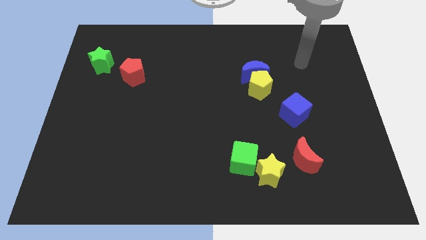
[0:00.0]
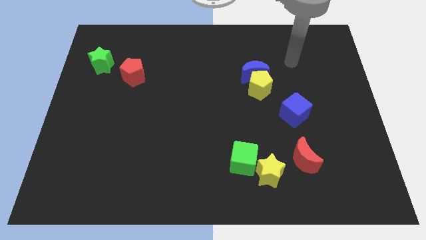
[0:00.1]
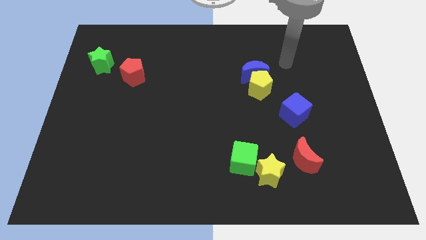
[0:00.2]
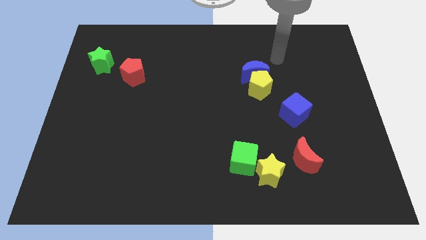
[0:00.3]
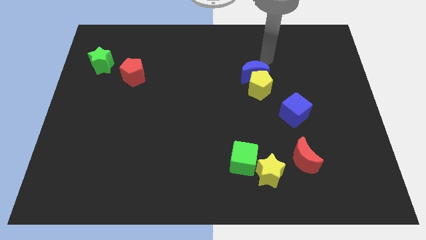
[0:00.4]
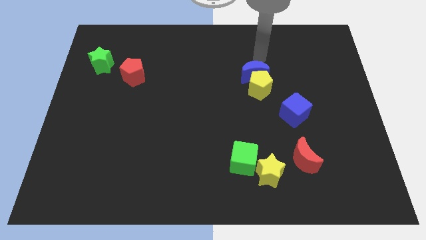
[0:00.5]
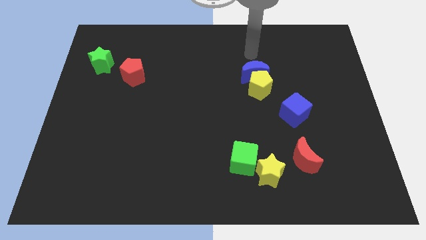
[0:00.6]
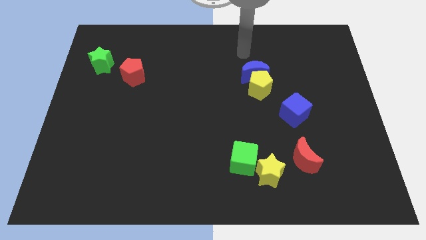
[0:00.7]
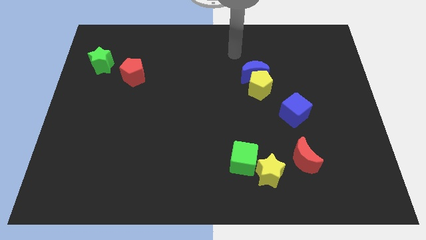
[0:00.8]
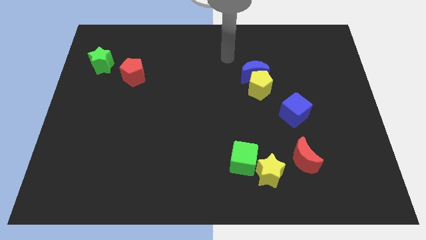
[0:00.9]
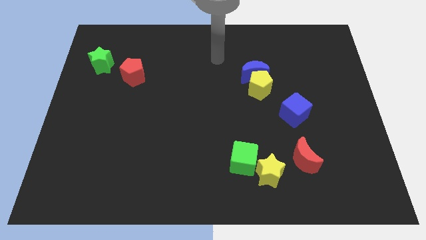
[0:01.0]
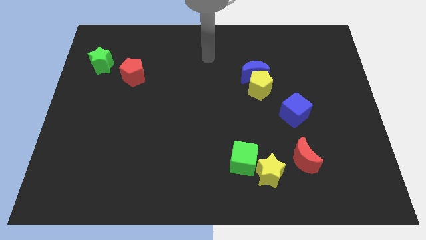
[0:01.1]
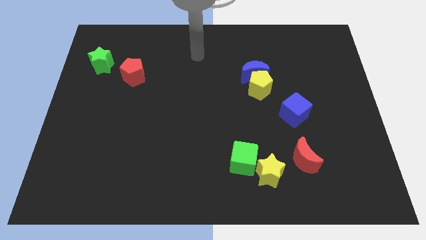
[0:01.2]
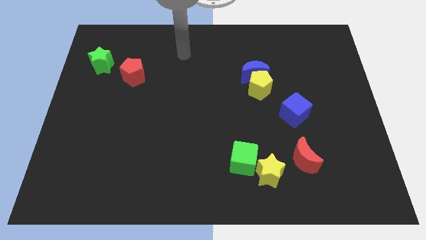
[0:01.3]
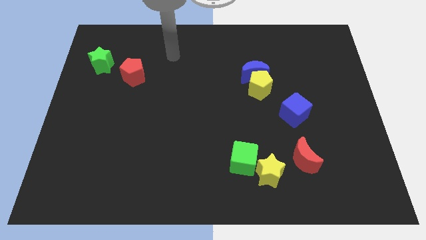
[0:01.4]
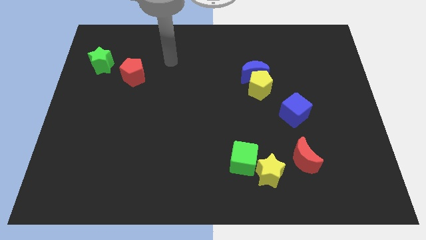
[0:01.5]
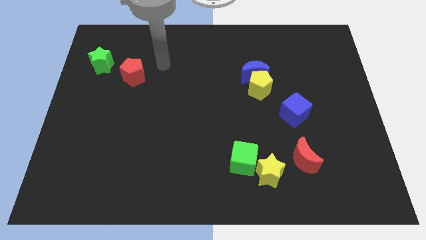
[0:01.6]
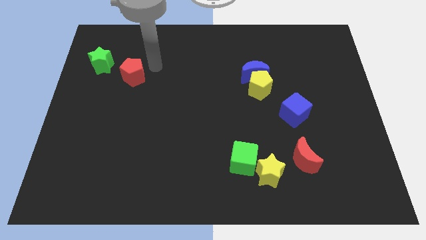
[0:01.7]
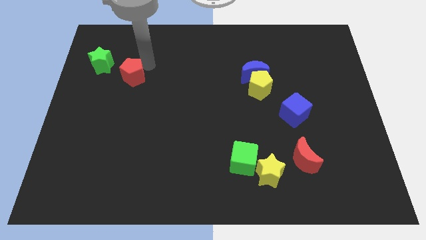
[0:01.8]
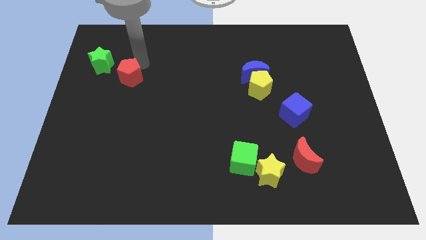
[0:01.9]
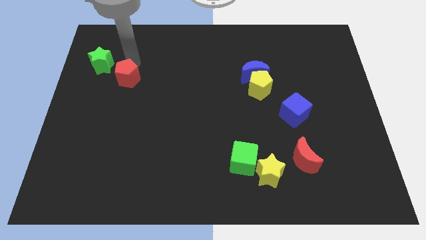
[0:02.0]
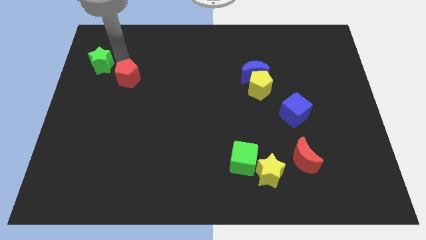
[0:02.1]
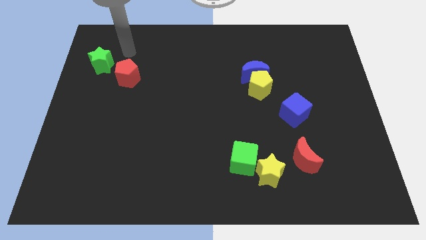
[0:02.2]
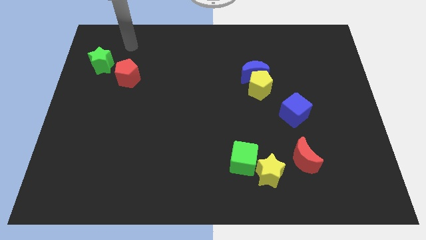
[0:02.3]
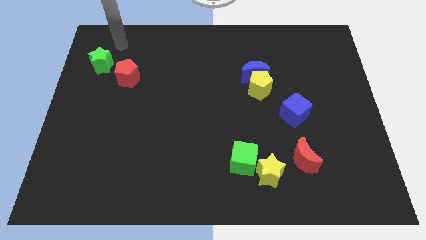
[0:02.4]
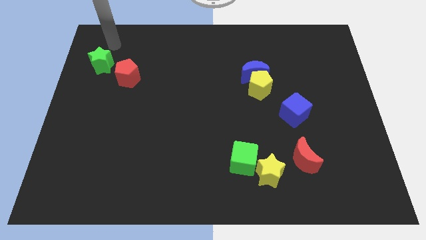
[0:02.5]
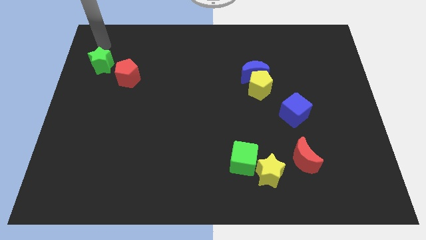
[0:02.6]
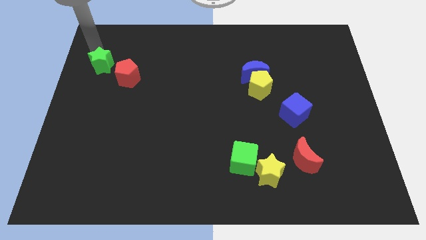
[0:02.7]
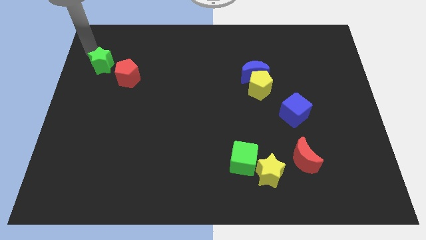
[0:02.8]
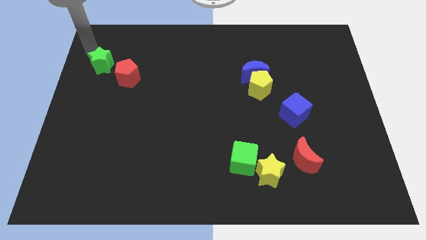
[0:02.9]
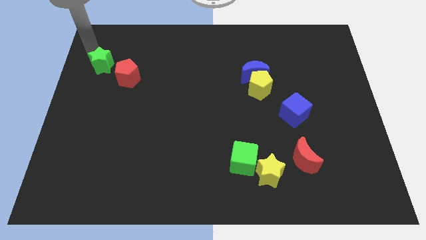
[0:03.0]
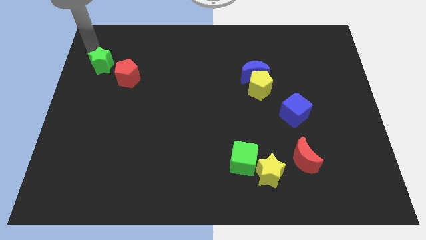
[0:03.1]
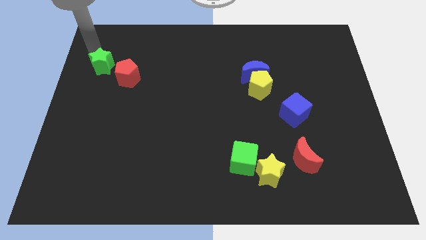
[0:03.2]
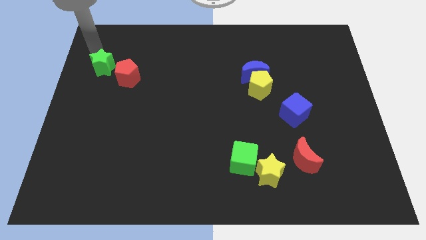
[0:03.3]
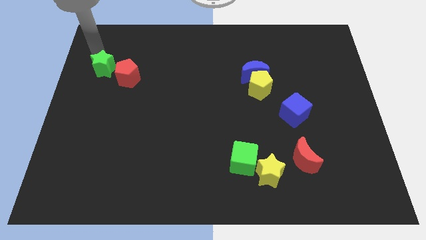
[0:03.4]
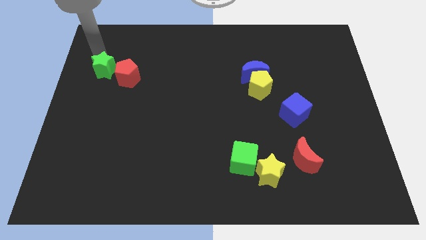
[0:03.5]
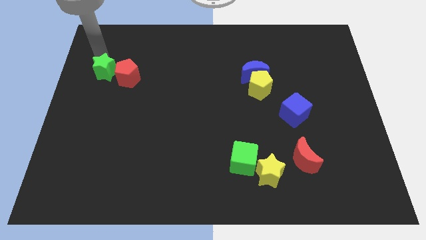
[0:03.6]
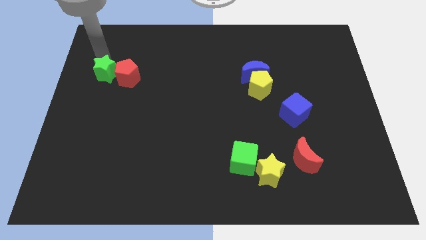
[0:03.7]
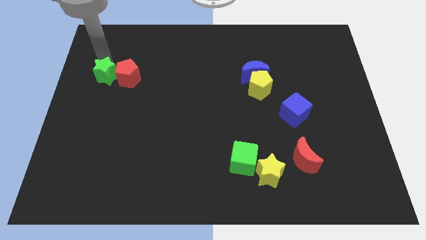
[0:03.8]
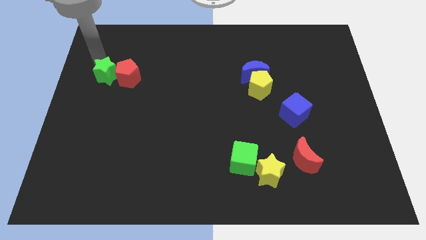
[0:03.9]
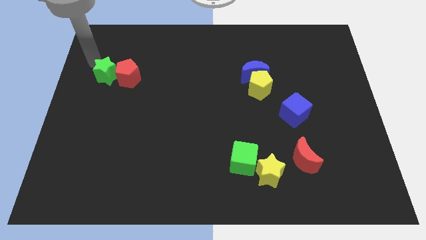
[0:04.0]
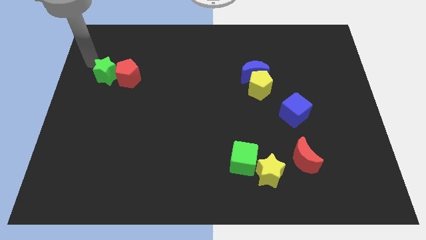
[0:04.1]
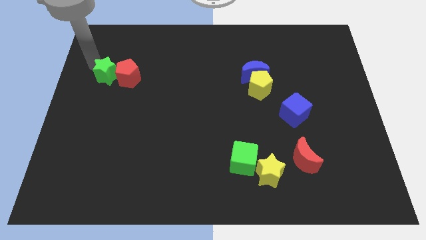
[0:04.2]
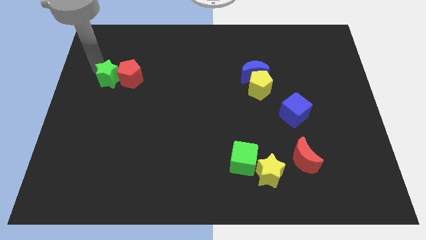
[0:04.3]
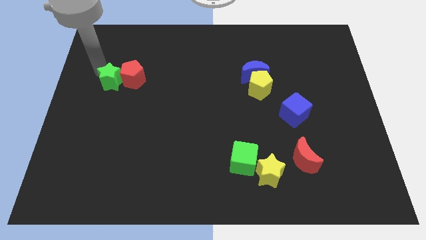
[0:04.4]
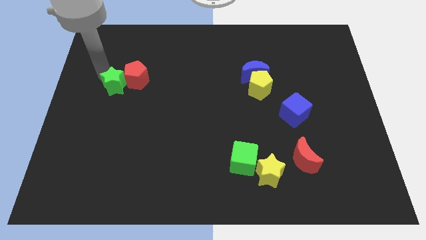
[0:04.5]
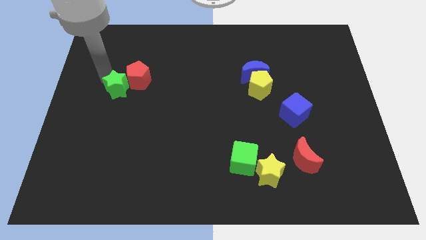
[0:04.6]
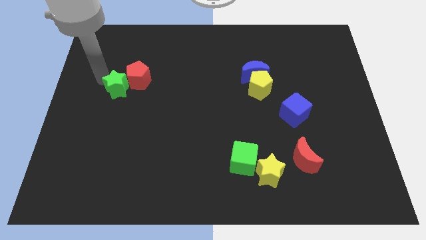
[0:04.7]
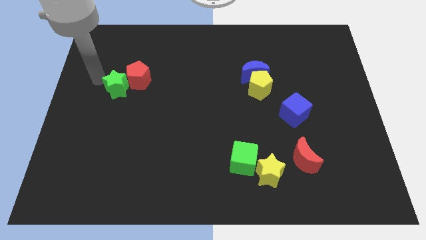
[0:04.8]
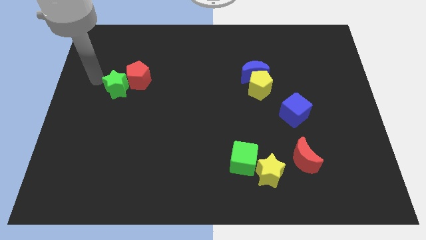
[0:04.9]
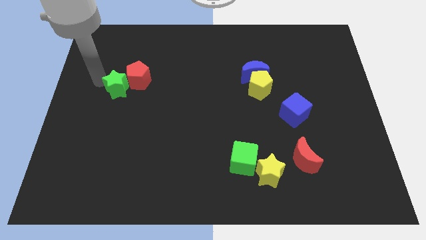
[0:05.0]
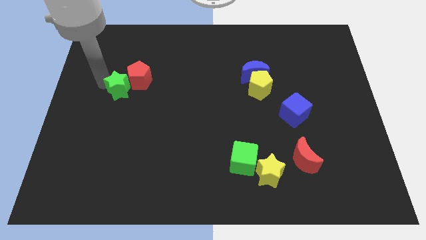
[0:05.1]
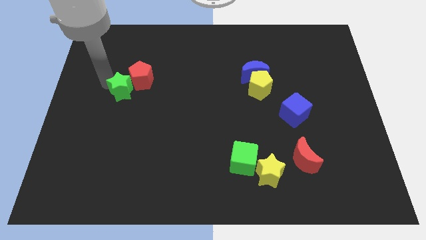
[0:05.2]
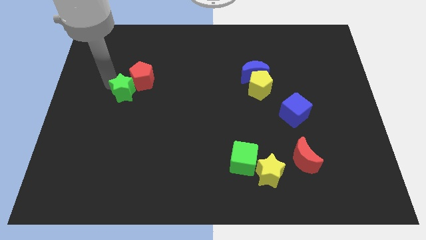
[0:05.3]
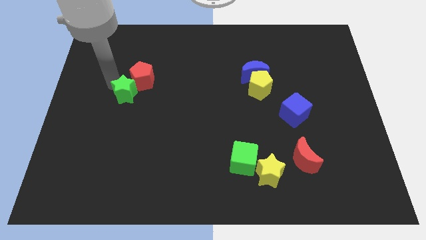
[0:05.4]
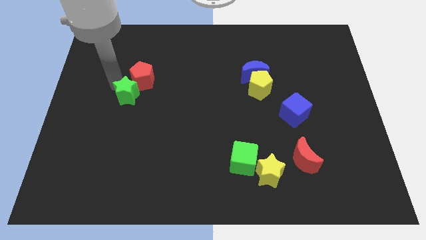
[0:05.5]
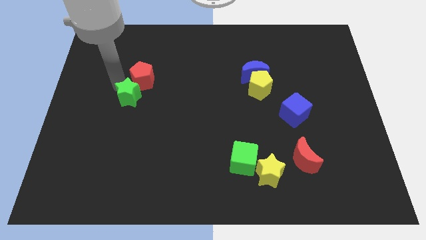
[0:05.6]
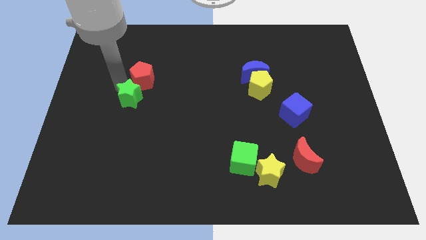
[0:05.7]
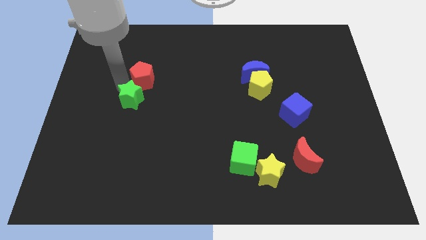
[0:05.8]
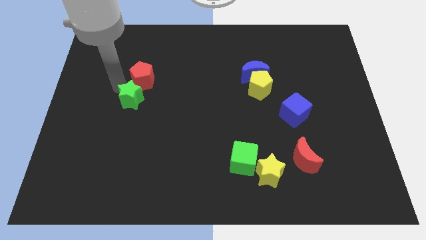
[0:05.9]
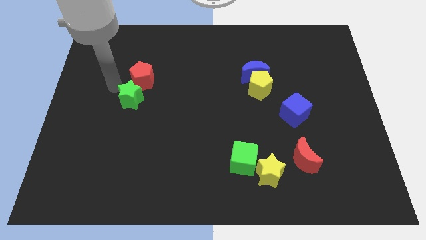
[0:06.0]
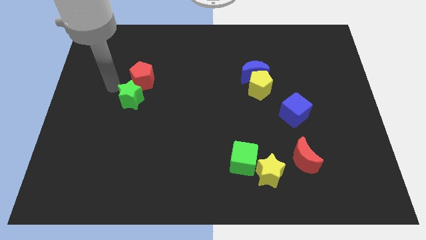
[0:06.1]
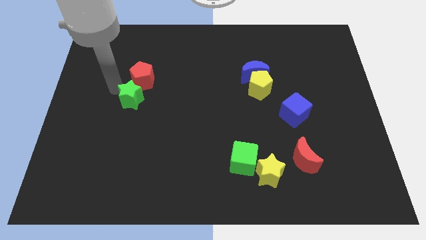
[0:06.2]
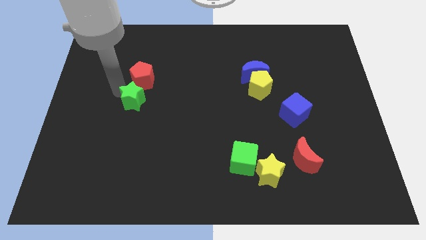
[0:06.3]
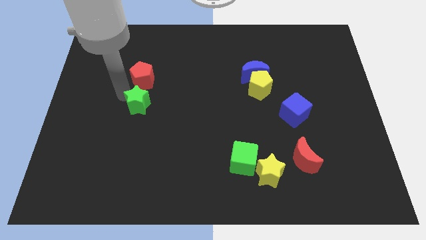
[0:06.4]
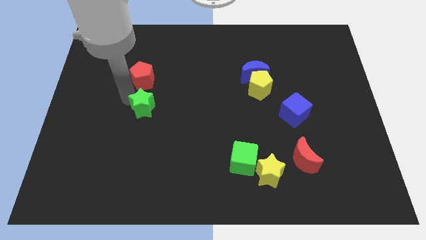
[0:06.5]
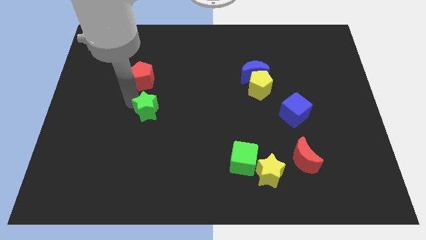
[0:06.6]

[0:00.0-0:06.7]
move the green star down and to the right diagonally

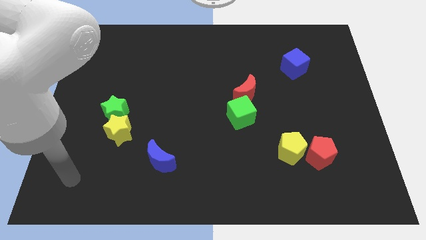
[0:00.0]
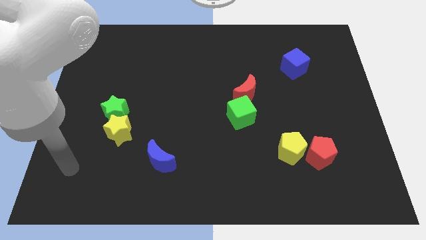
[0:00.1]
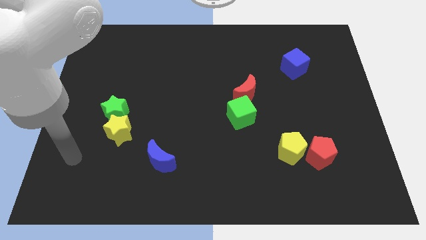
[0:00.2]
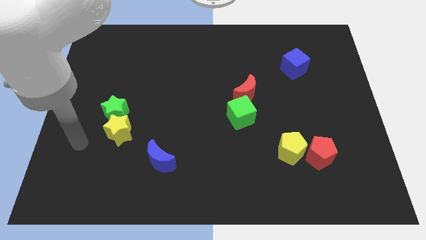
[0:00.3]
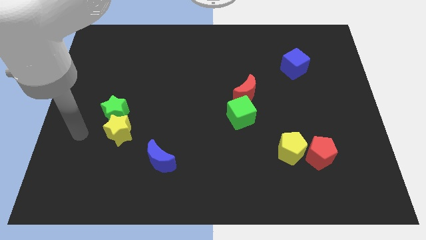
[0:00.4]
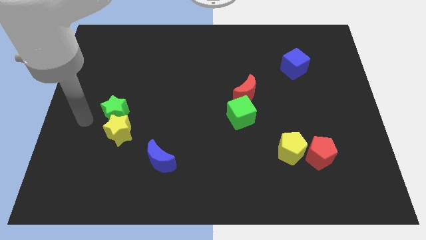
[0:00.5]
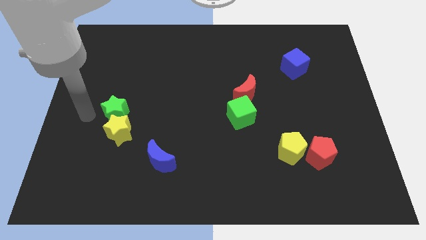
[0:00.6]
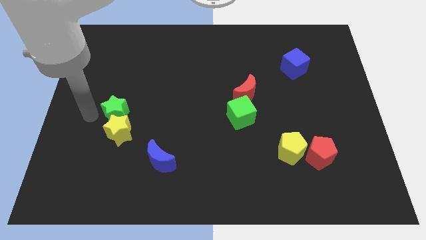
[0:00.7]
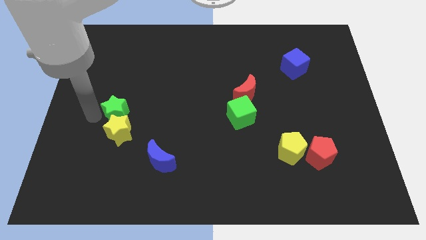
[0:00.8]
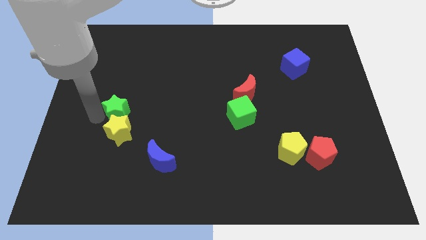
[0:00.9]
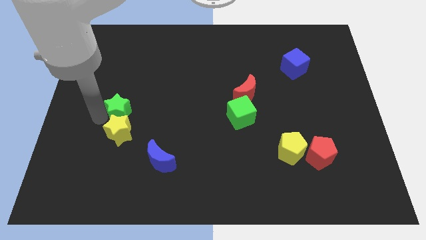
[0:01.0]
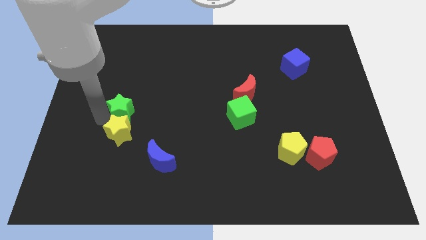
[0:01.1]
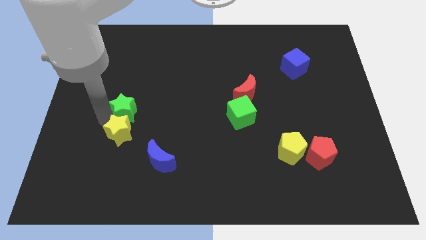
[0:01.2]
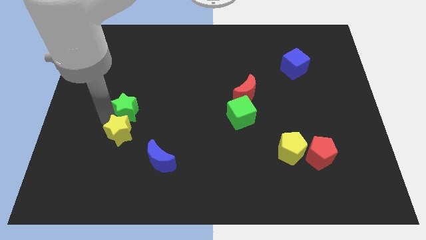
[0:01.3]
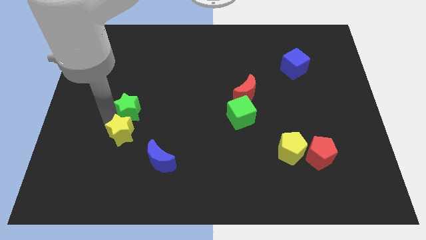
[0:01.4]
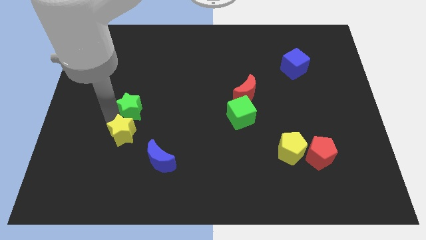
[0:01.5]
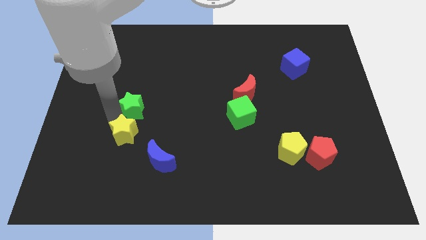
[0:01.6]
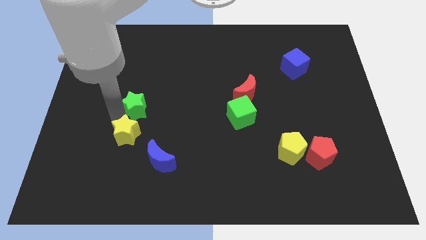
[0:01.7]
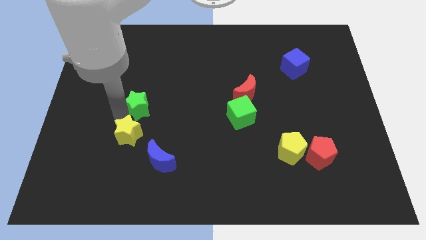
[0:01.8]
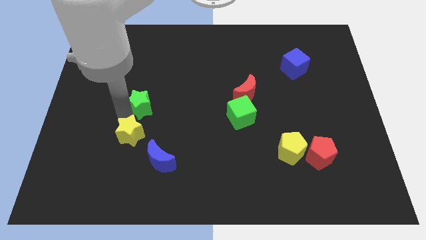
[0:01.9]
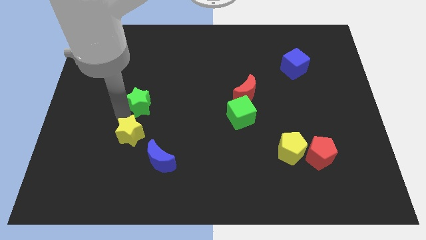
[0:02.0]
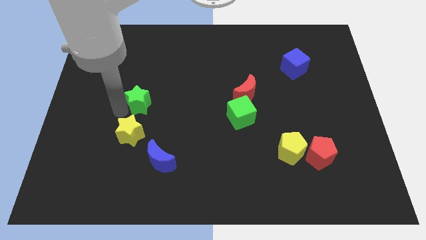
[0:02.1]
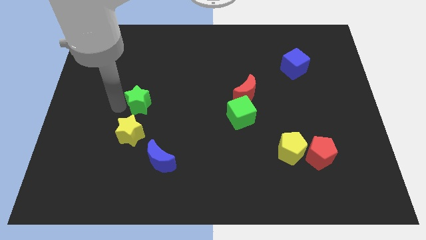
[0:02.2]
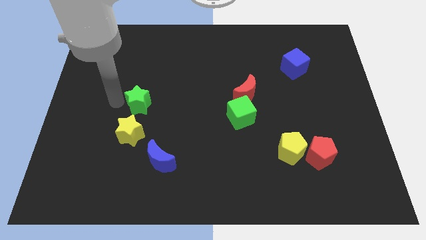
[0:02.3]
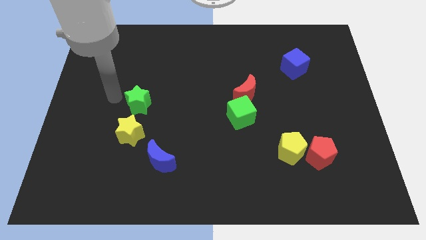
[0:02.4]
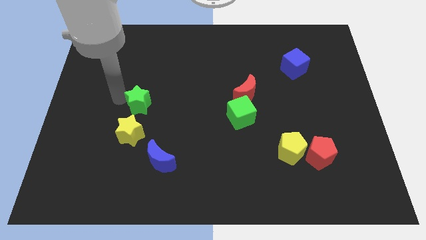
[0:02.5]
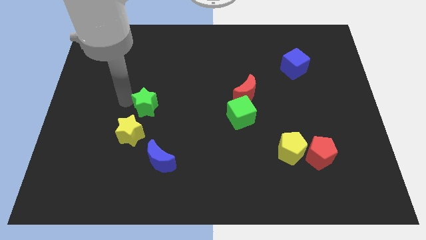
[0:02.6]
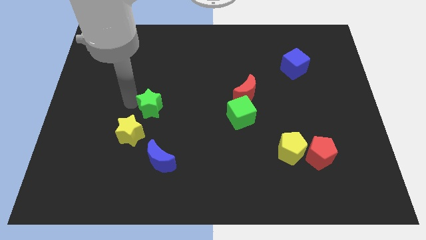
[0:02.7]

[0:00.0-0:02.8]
move the green star to the right a bit
